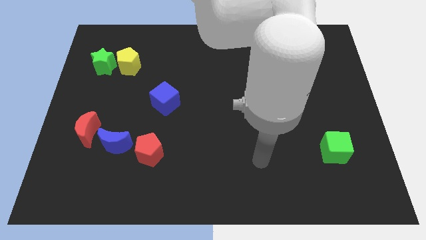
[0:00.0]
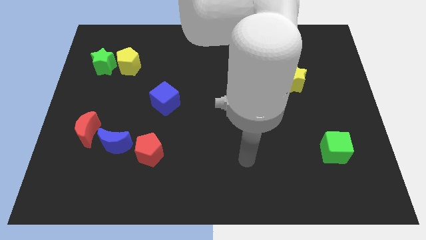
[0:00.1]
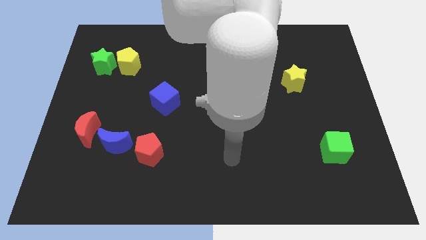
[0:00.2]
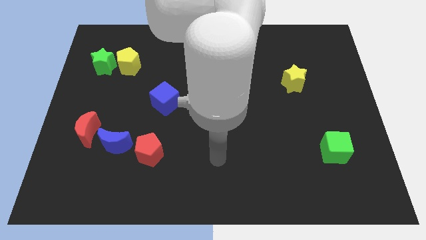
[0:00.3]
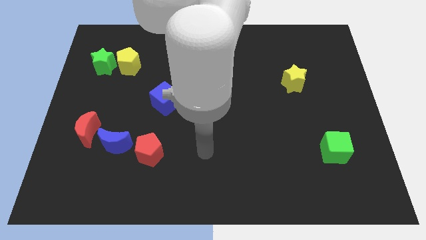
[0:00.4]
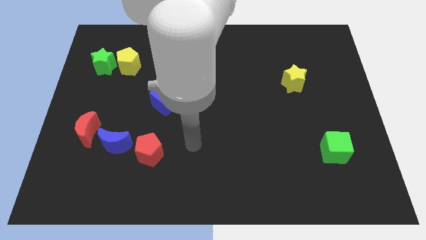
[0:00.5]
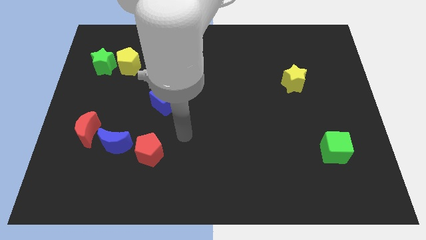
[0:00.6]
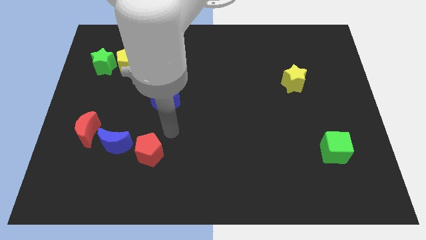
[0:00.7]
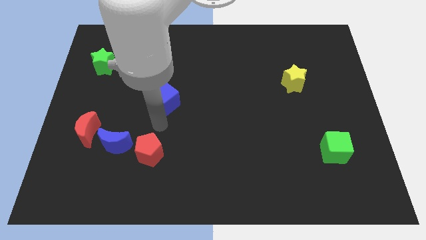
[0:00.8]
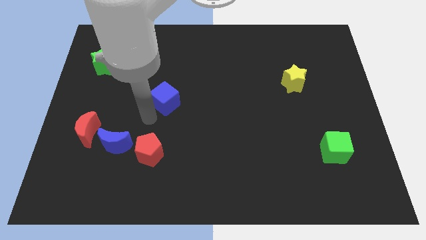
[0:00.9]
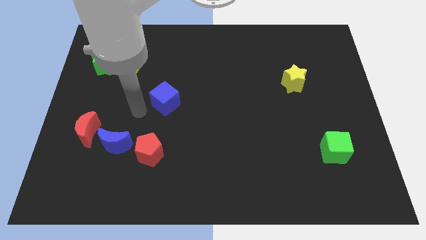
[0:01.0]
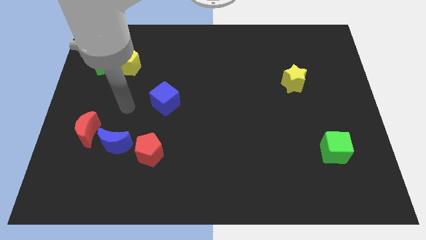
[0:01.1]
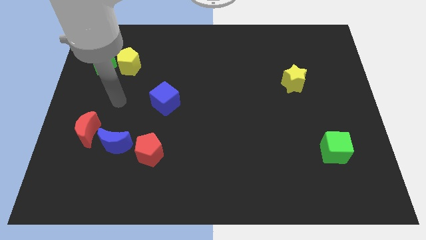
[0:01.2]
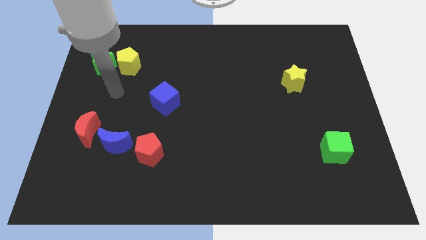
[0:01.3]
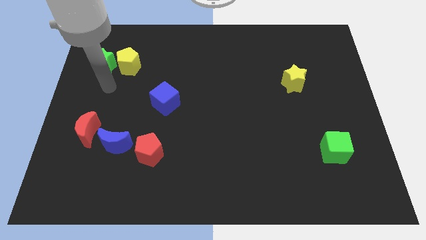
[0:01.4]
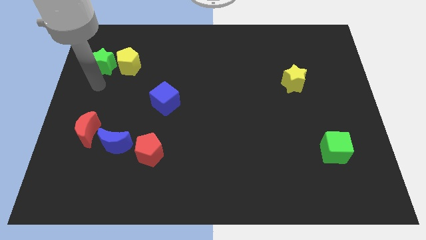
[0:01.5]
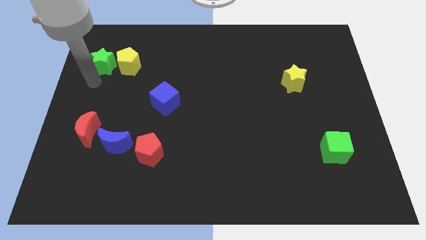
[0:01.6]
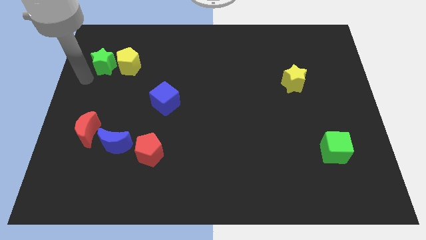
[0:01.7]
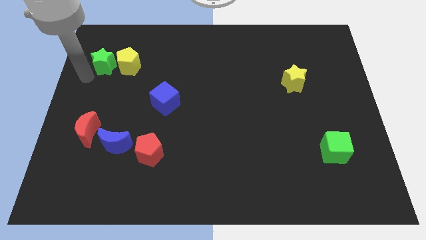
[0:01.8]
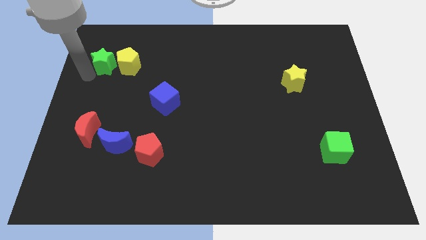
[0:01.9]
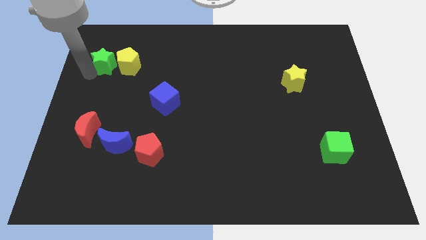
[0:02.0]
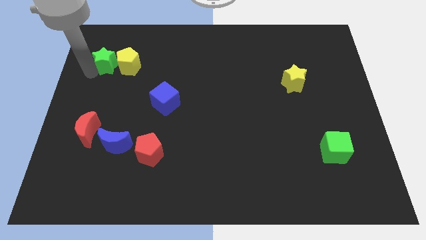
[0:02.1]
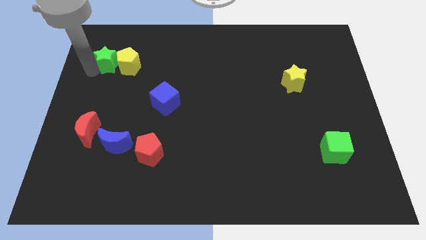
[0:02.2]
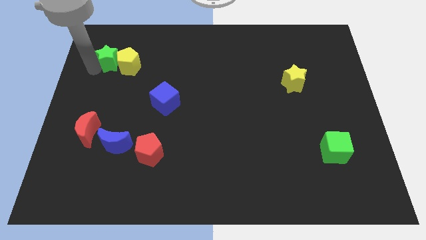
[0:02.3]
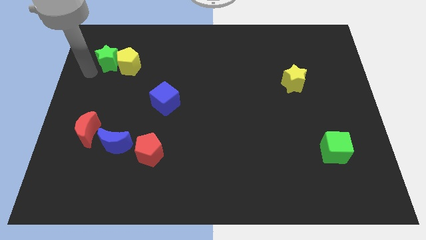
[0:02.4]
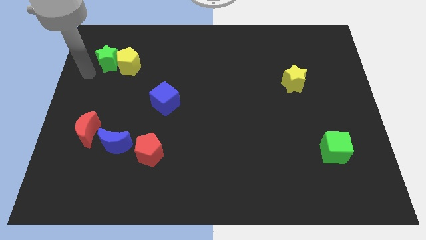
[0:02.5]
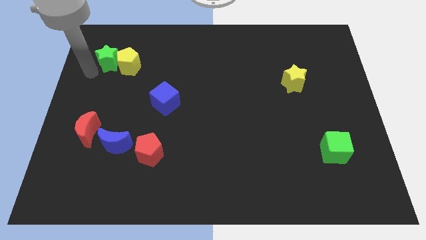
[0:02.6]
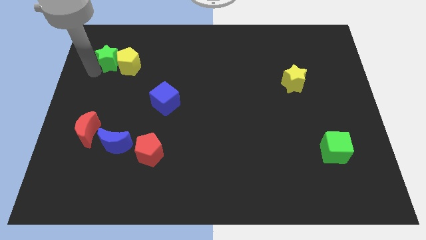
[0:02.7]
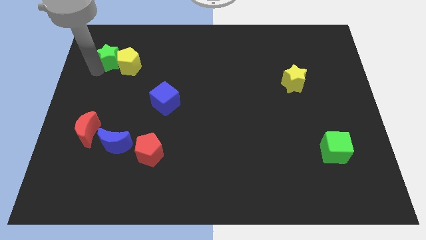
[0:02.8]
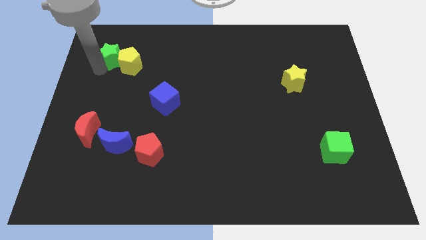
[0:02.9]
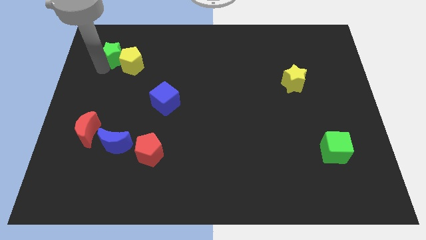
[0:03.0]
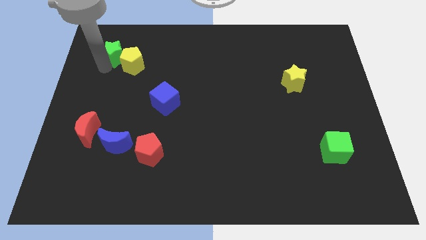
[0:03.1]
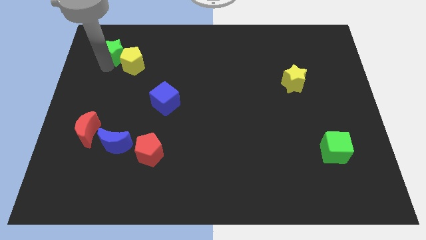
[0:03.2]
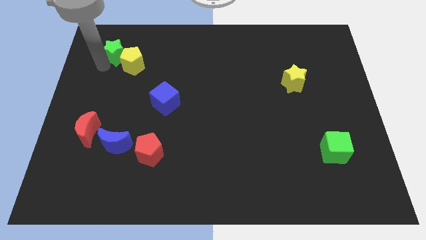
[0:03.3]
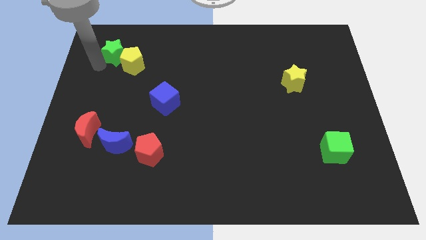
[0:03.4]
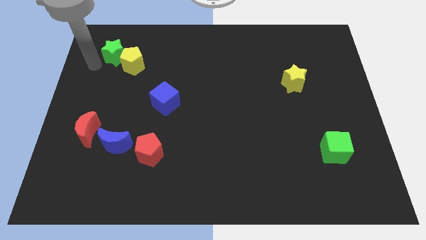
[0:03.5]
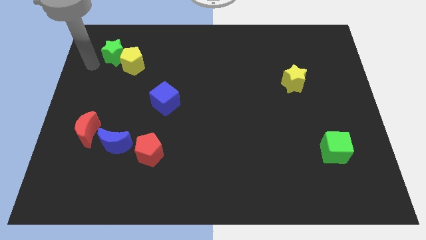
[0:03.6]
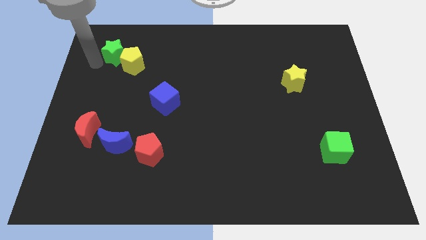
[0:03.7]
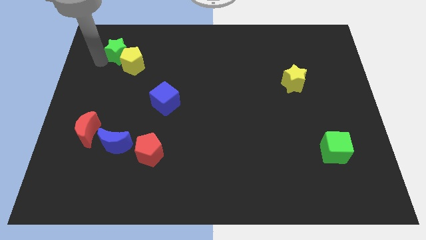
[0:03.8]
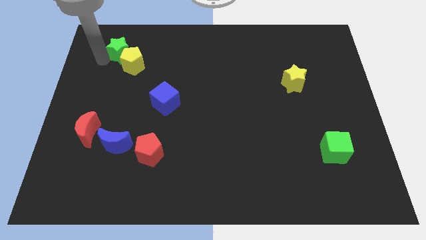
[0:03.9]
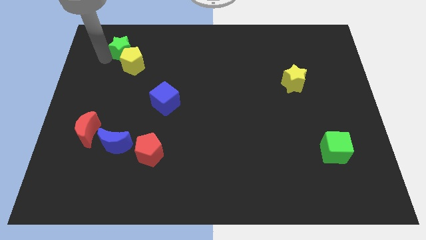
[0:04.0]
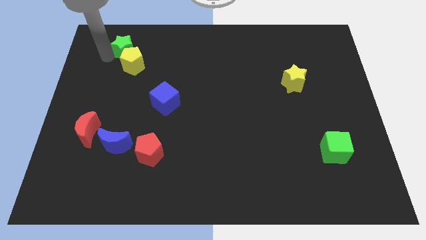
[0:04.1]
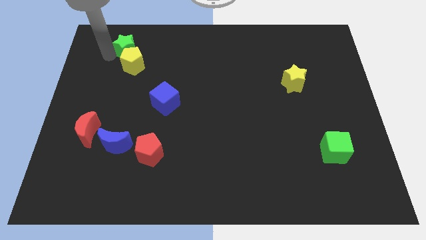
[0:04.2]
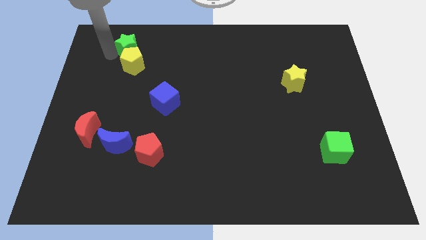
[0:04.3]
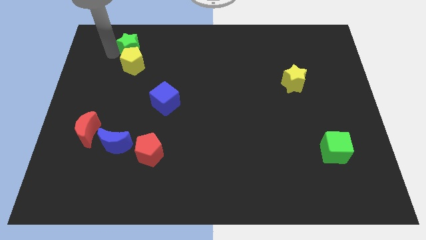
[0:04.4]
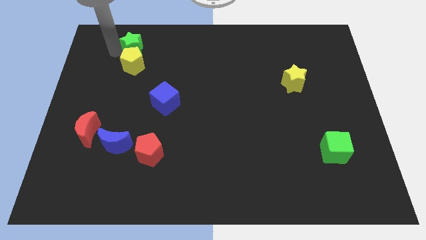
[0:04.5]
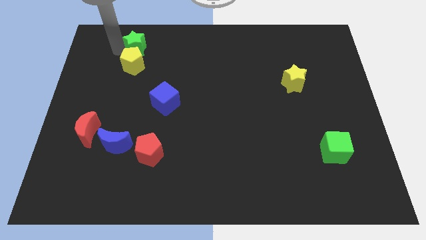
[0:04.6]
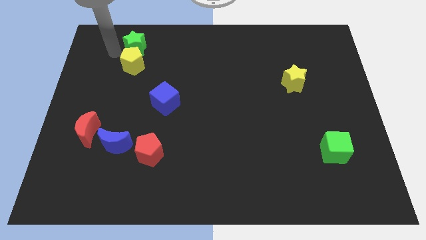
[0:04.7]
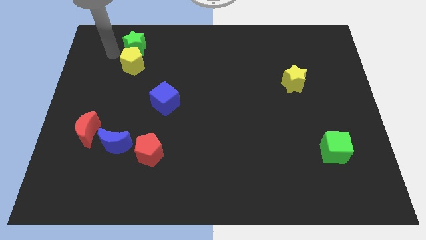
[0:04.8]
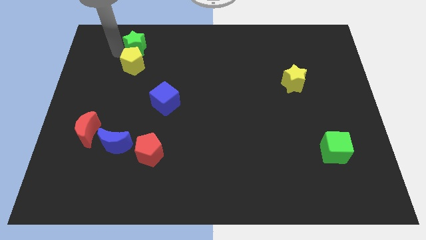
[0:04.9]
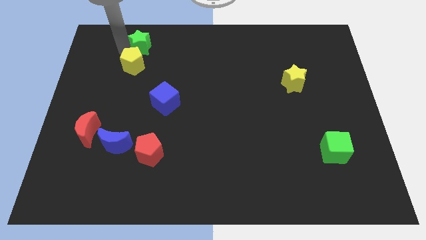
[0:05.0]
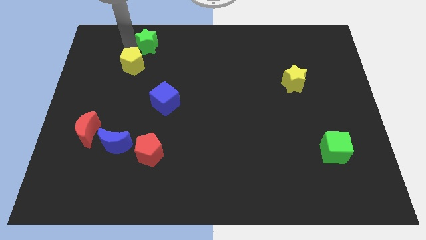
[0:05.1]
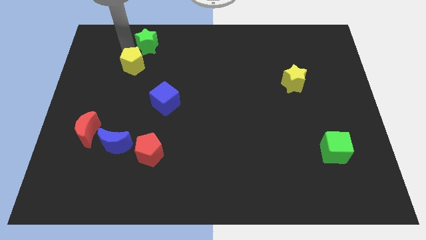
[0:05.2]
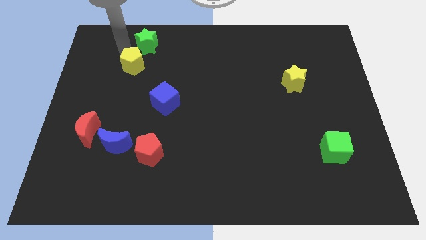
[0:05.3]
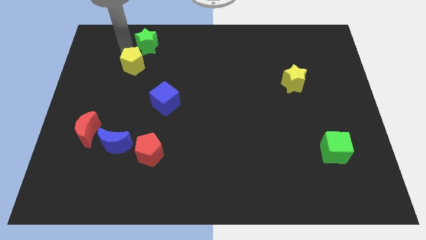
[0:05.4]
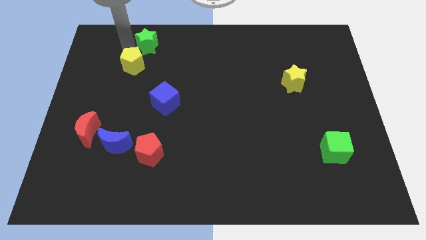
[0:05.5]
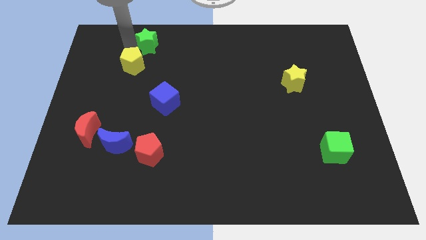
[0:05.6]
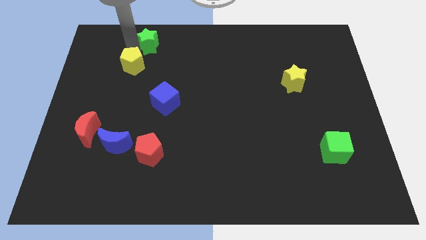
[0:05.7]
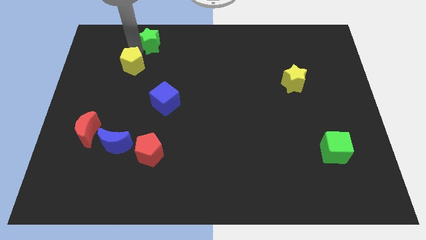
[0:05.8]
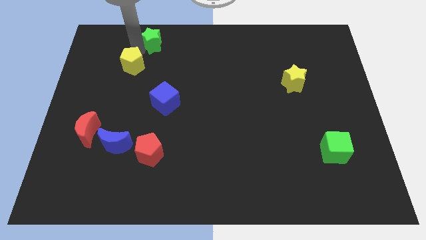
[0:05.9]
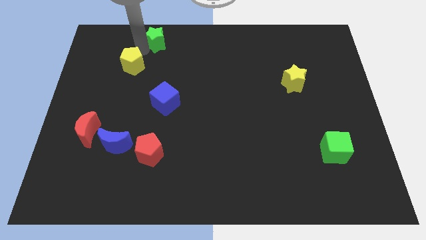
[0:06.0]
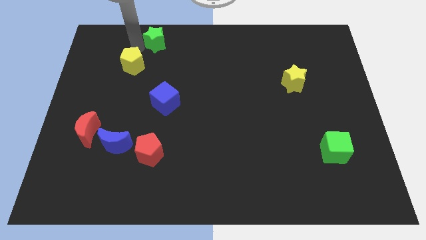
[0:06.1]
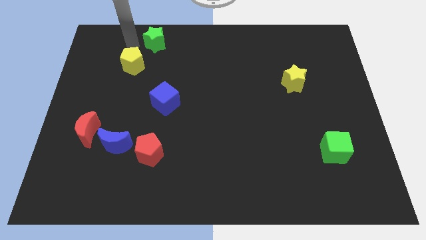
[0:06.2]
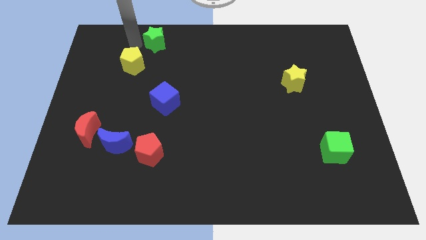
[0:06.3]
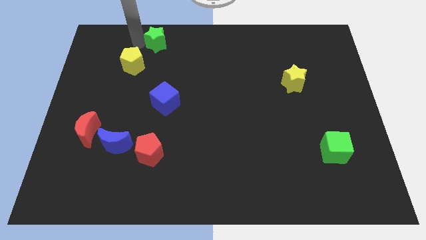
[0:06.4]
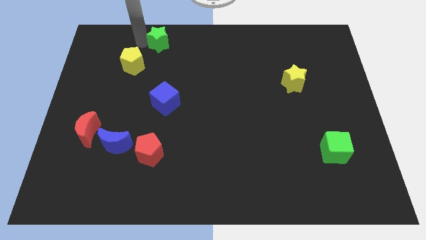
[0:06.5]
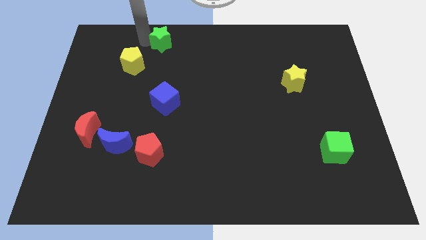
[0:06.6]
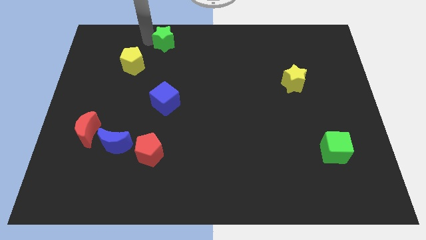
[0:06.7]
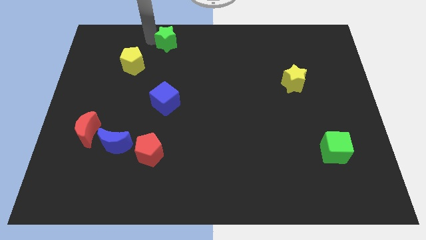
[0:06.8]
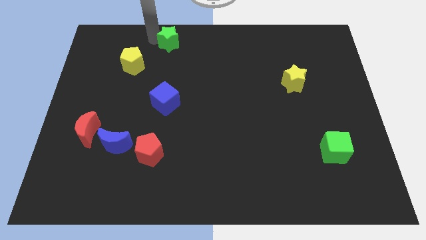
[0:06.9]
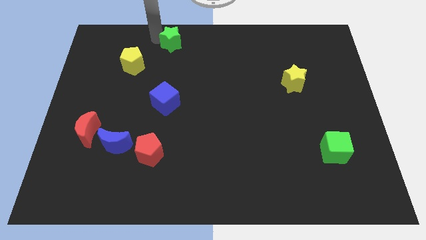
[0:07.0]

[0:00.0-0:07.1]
put the green star to the towards your base
